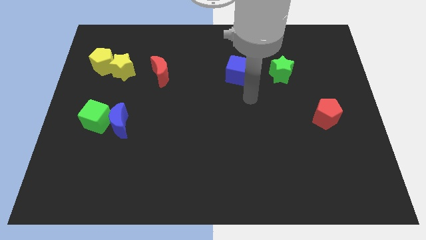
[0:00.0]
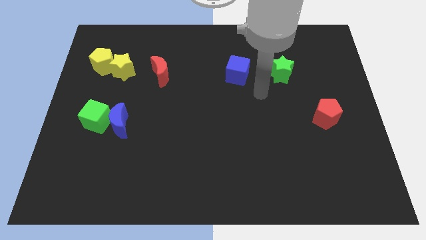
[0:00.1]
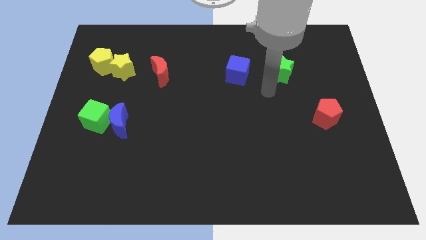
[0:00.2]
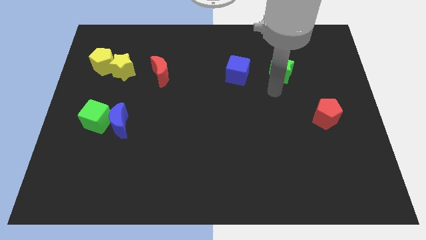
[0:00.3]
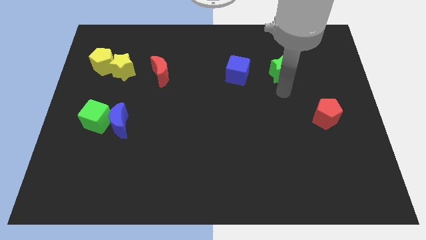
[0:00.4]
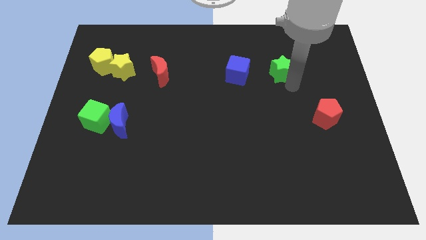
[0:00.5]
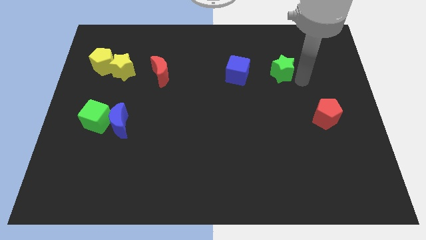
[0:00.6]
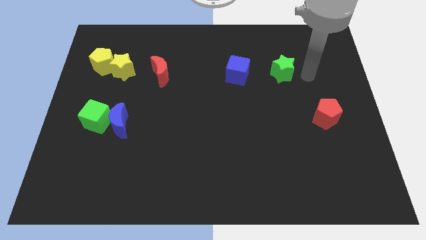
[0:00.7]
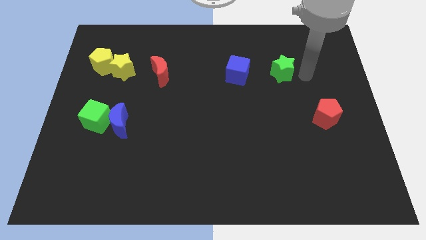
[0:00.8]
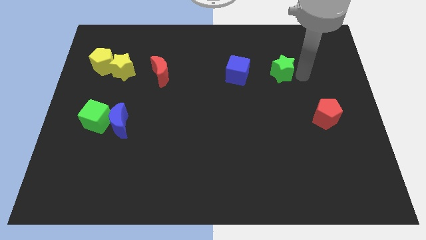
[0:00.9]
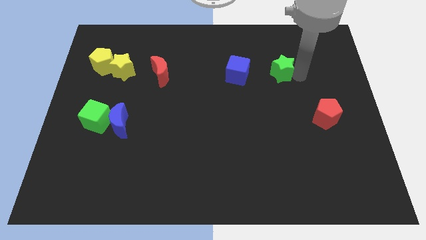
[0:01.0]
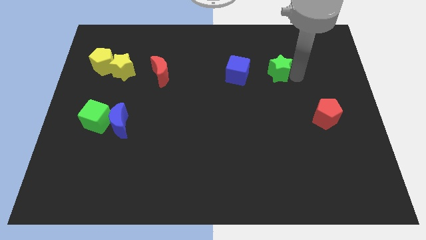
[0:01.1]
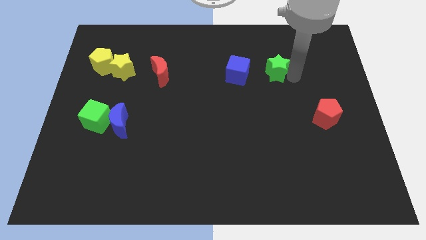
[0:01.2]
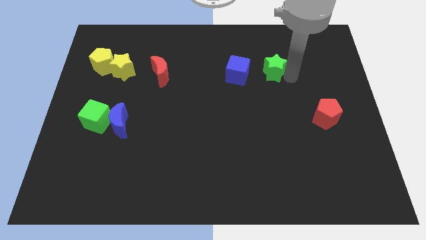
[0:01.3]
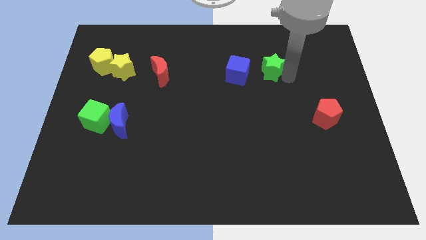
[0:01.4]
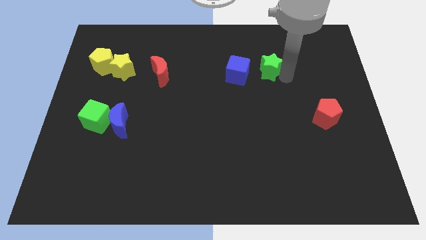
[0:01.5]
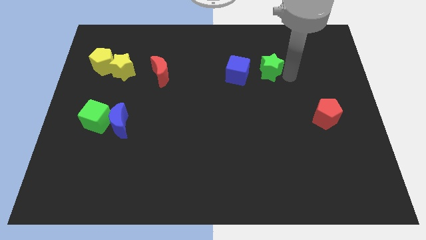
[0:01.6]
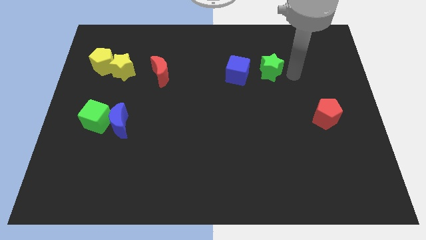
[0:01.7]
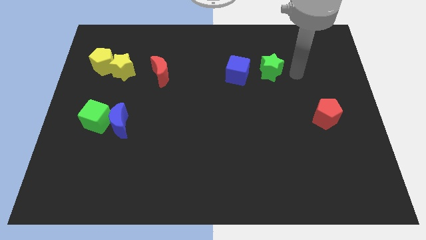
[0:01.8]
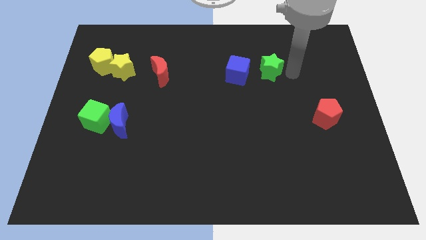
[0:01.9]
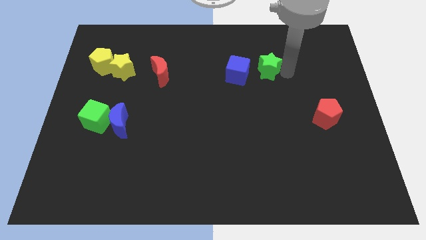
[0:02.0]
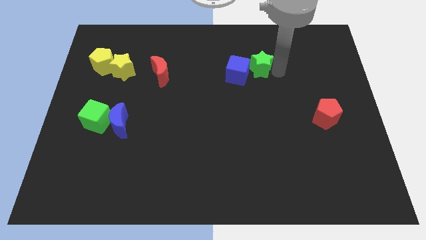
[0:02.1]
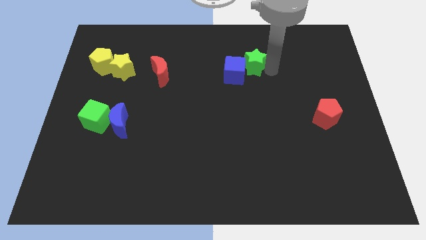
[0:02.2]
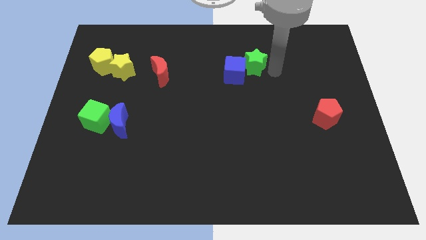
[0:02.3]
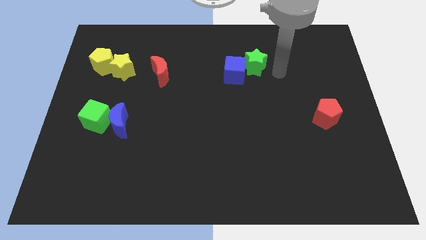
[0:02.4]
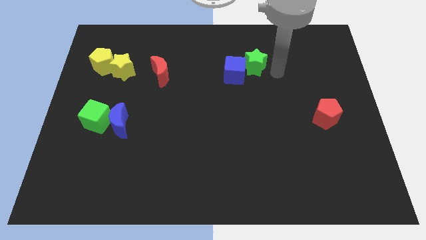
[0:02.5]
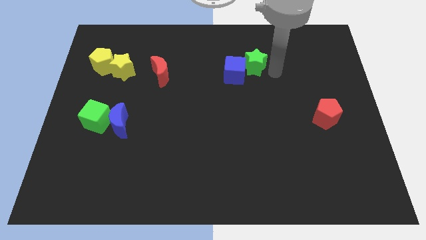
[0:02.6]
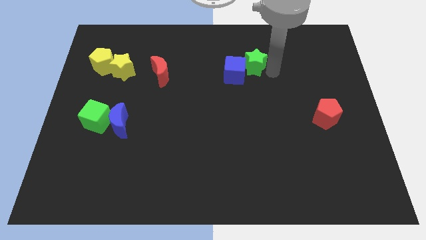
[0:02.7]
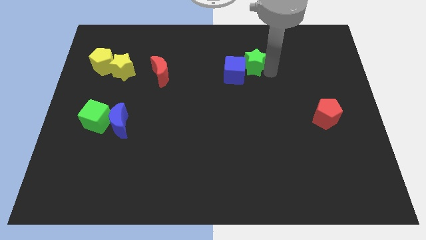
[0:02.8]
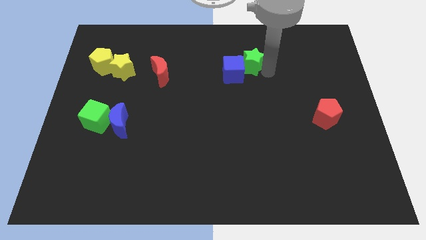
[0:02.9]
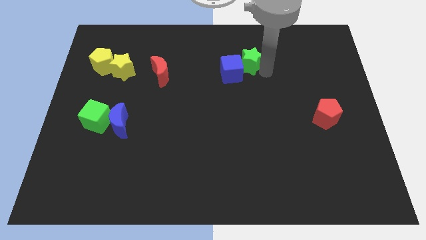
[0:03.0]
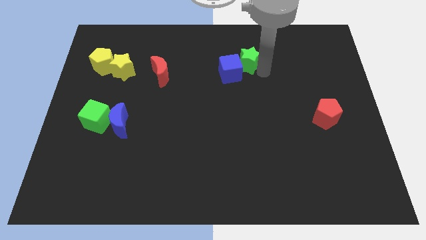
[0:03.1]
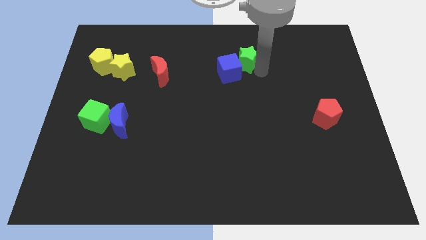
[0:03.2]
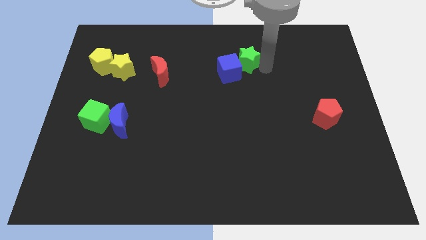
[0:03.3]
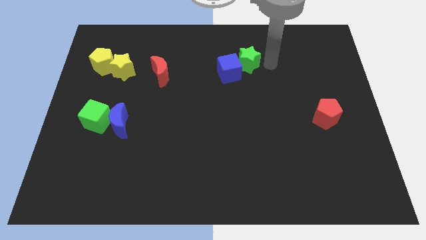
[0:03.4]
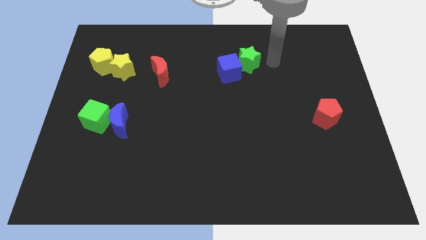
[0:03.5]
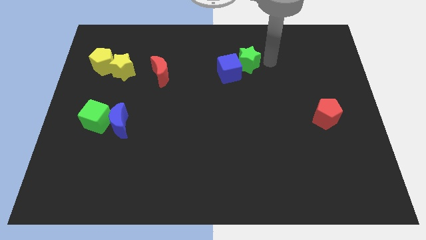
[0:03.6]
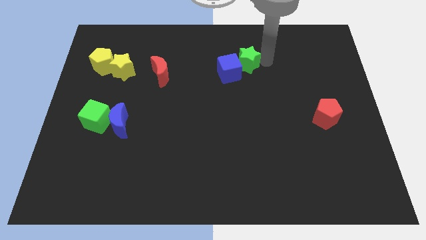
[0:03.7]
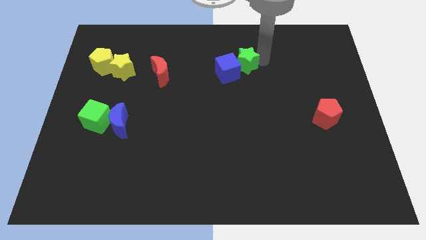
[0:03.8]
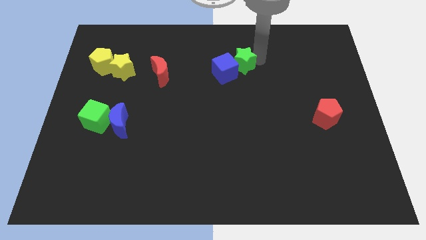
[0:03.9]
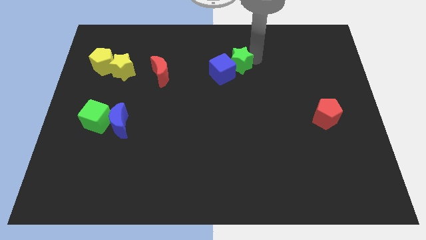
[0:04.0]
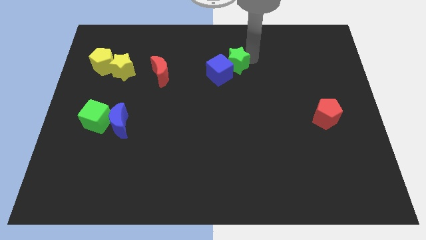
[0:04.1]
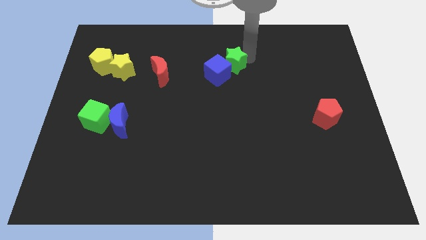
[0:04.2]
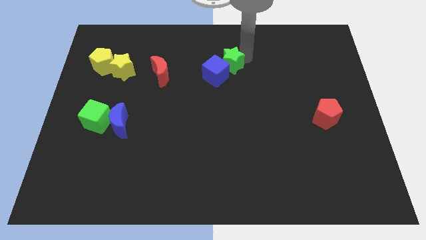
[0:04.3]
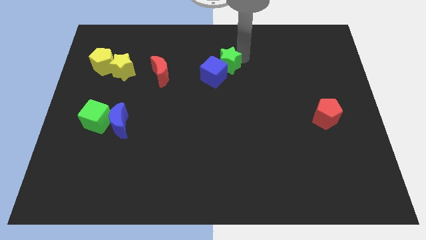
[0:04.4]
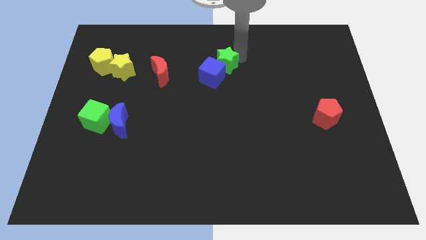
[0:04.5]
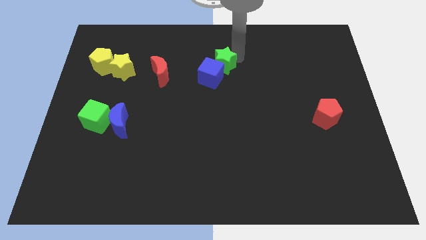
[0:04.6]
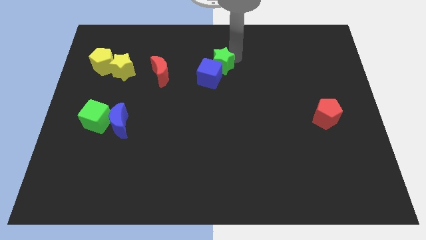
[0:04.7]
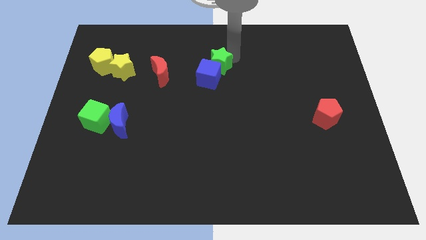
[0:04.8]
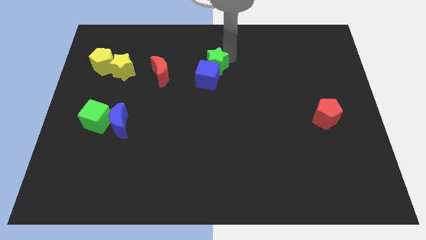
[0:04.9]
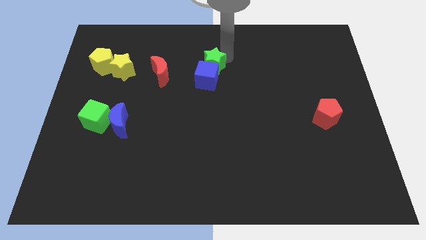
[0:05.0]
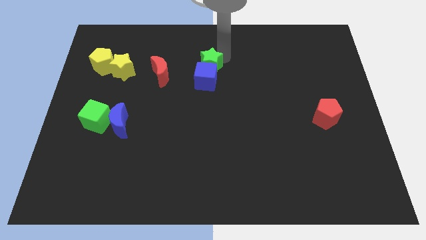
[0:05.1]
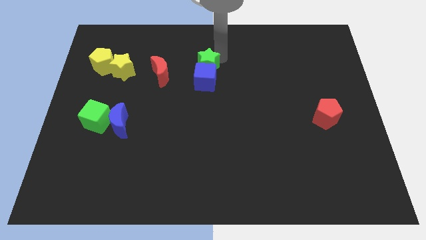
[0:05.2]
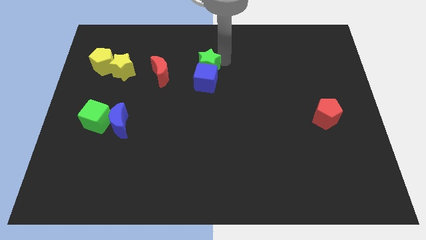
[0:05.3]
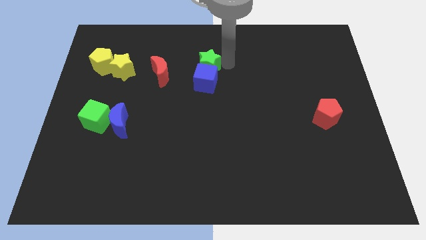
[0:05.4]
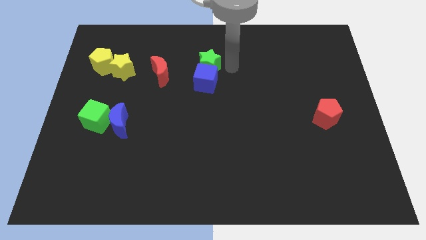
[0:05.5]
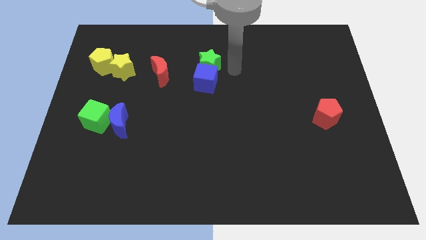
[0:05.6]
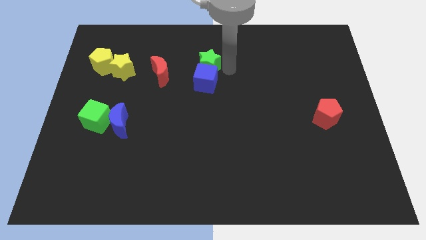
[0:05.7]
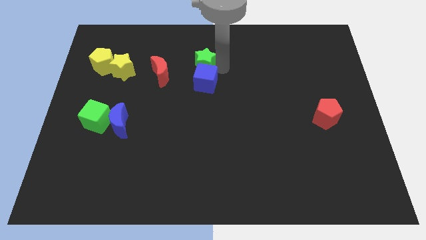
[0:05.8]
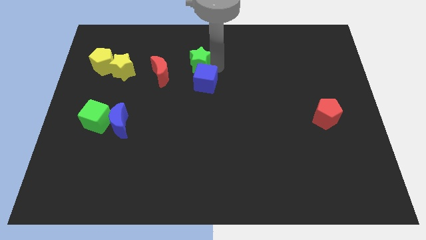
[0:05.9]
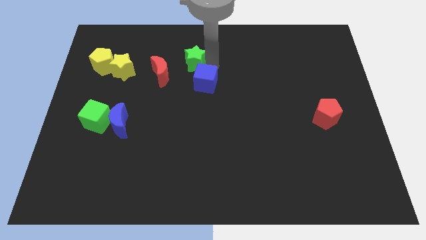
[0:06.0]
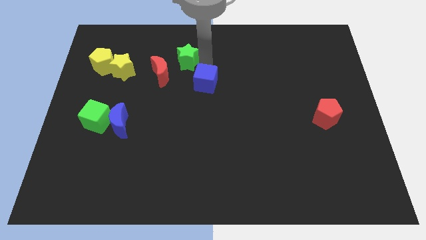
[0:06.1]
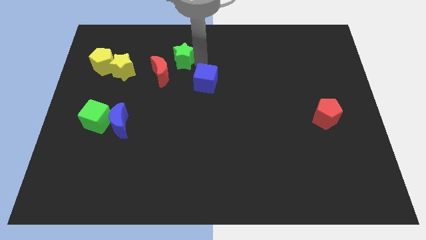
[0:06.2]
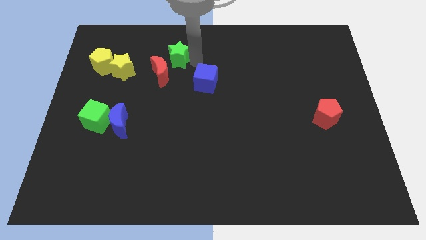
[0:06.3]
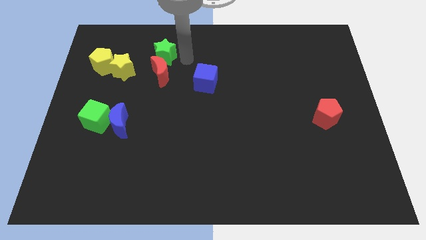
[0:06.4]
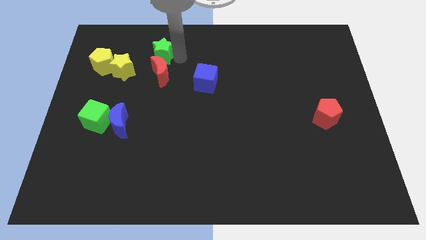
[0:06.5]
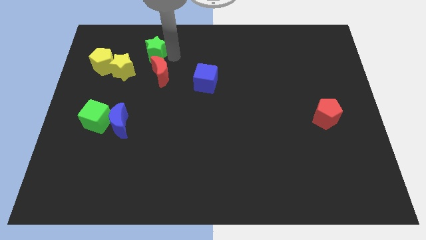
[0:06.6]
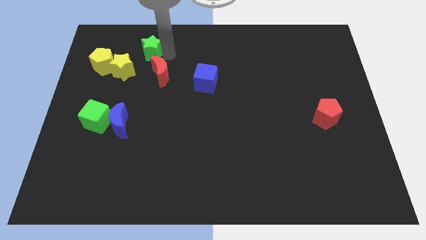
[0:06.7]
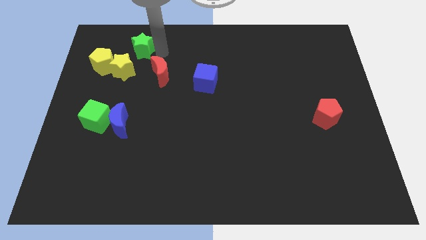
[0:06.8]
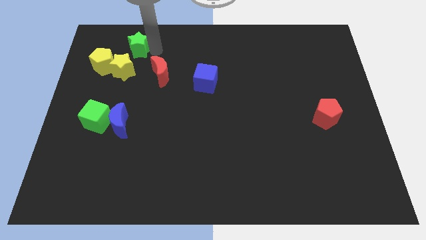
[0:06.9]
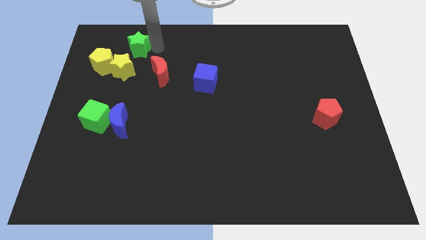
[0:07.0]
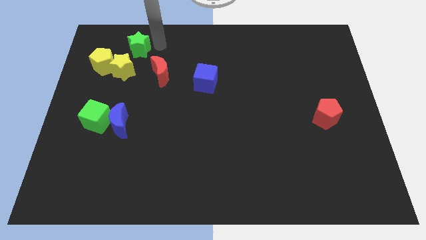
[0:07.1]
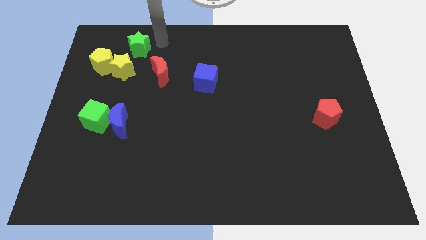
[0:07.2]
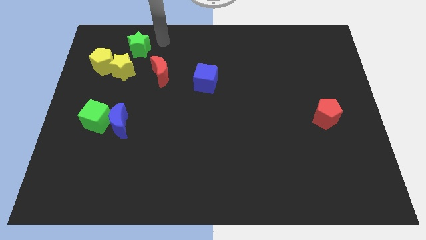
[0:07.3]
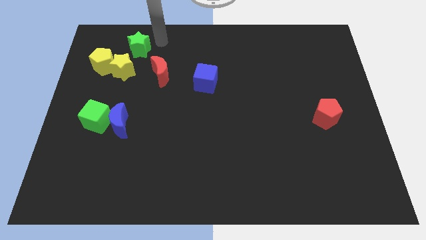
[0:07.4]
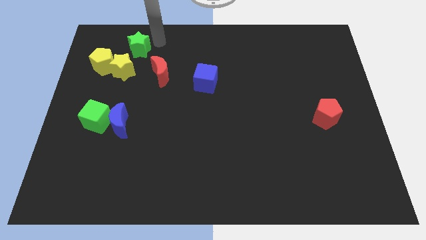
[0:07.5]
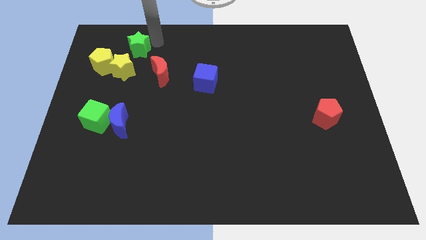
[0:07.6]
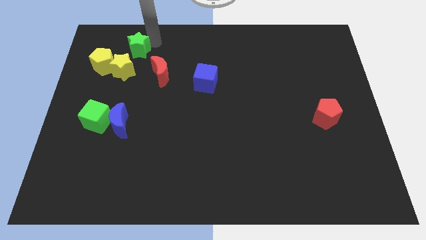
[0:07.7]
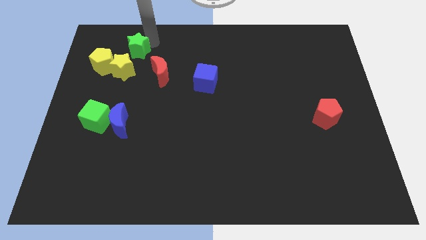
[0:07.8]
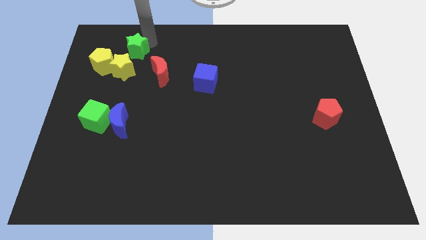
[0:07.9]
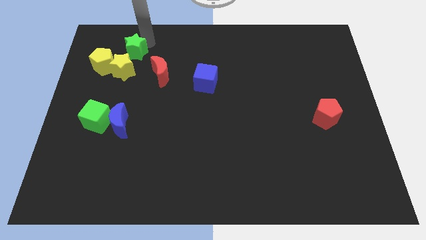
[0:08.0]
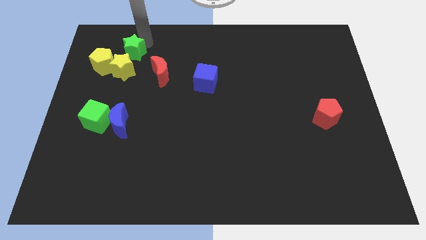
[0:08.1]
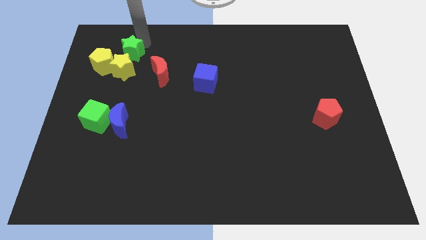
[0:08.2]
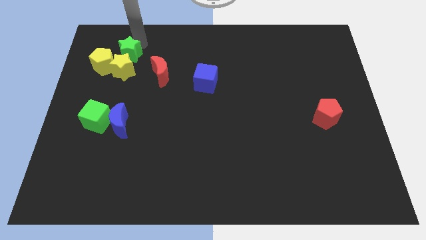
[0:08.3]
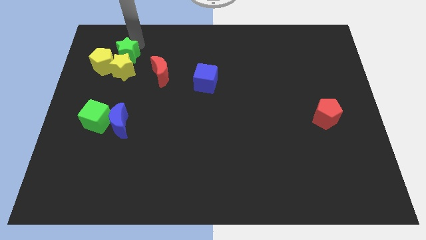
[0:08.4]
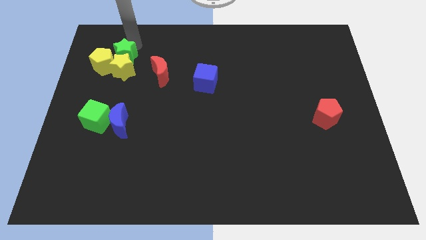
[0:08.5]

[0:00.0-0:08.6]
move the green star close to the yellow pentagon
